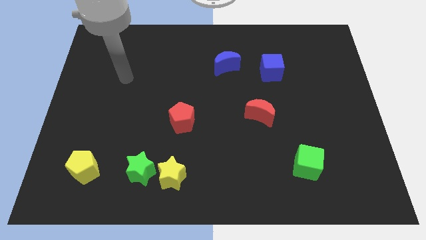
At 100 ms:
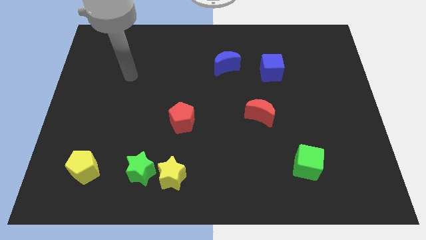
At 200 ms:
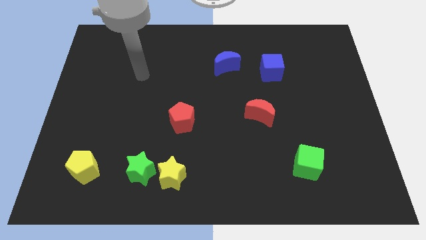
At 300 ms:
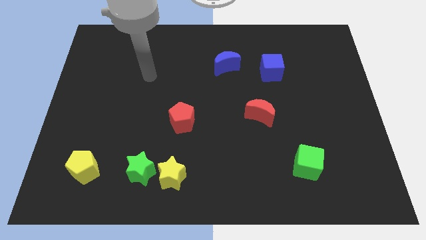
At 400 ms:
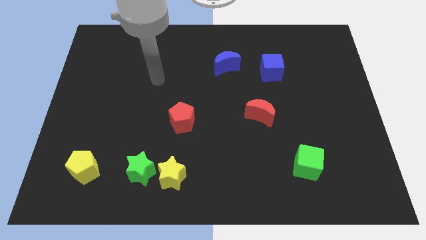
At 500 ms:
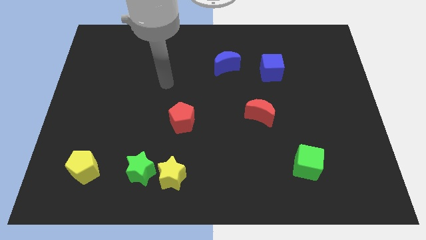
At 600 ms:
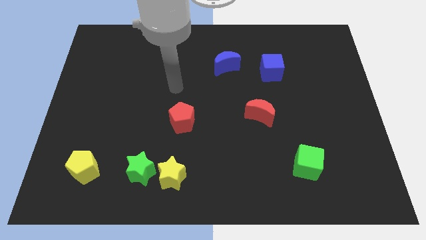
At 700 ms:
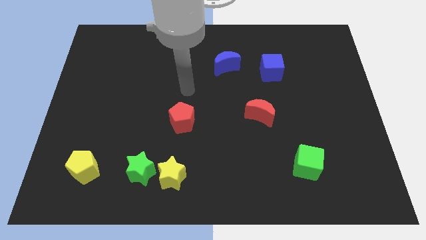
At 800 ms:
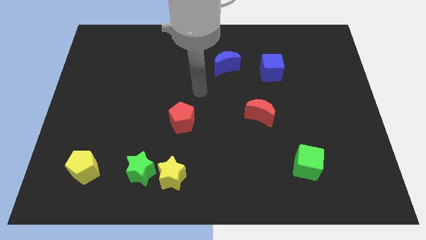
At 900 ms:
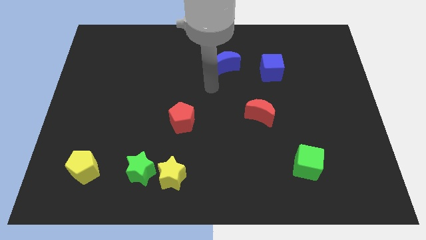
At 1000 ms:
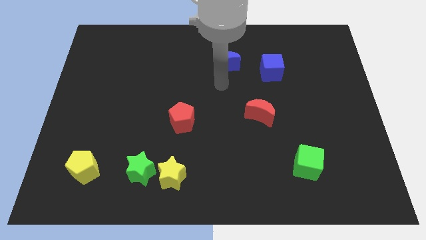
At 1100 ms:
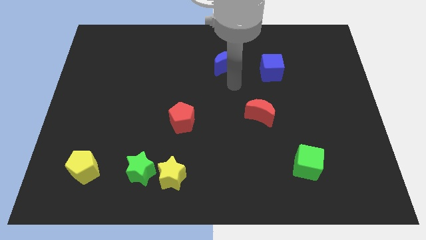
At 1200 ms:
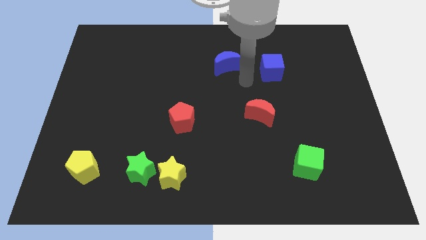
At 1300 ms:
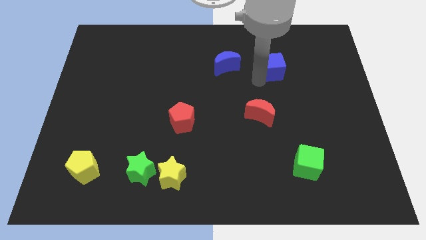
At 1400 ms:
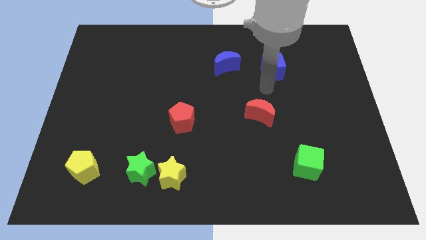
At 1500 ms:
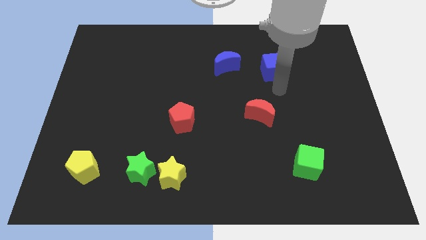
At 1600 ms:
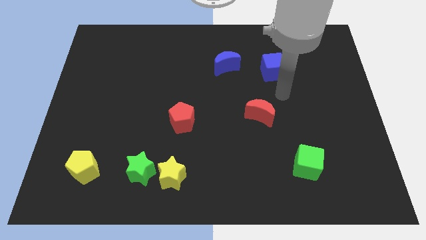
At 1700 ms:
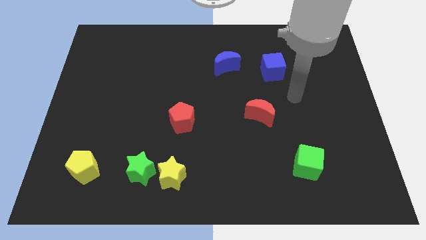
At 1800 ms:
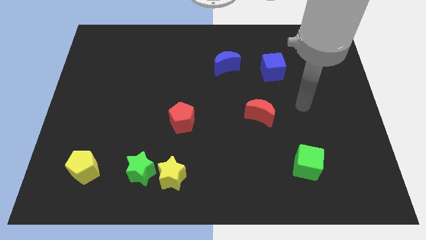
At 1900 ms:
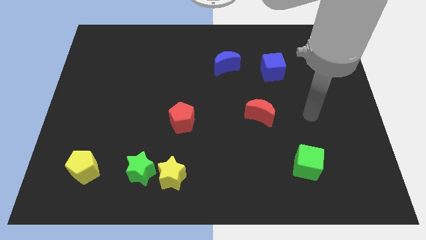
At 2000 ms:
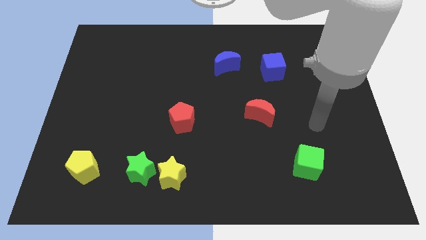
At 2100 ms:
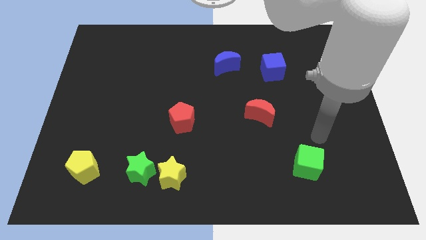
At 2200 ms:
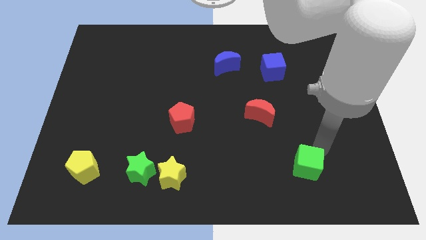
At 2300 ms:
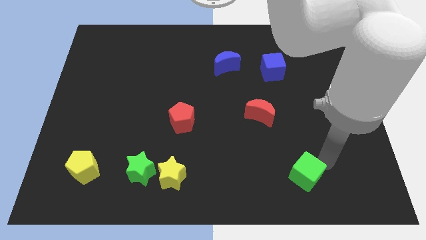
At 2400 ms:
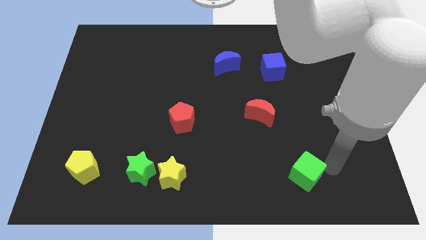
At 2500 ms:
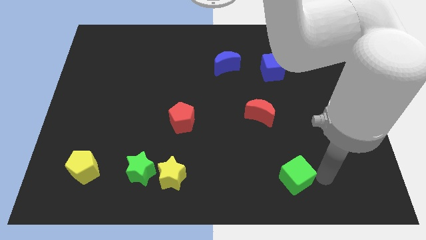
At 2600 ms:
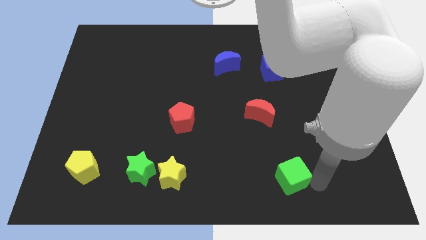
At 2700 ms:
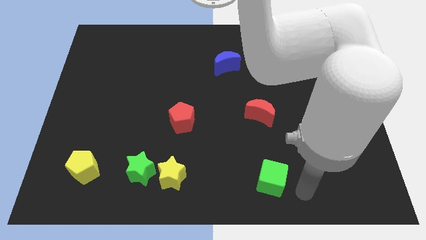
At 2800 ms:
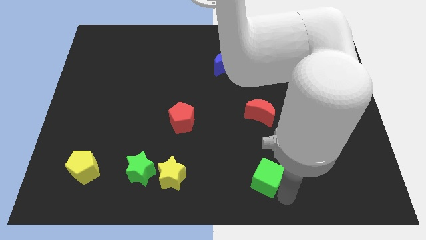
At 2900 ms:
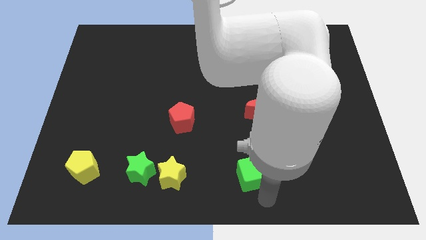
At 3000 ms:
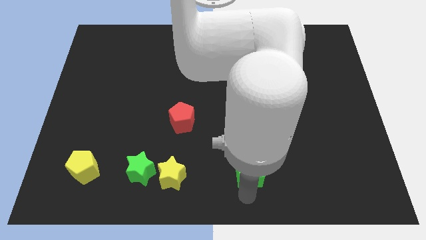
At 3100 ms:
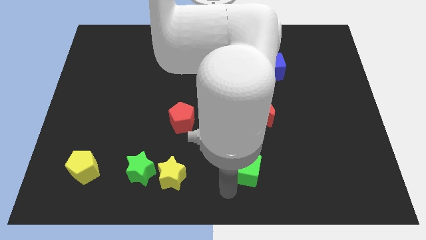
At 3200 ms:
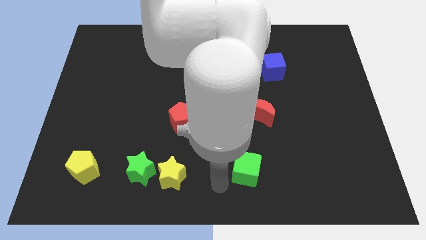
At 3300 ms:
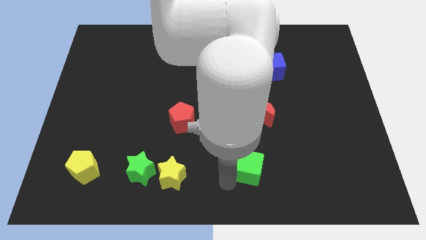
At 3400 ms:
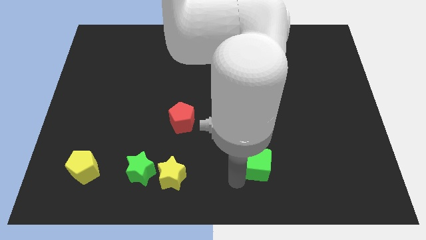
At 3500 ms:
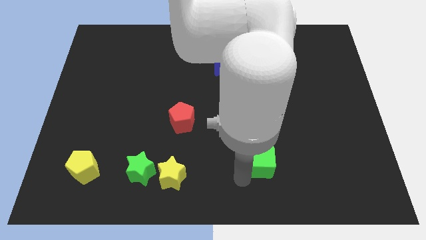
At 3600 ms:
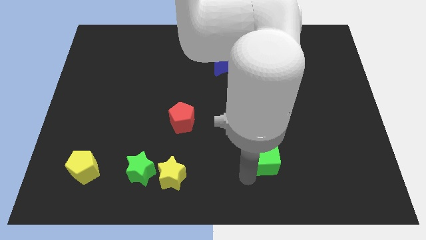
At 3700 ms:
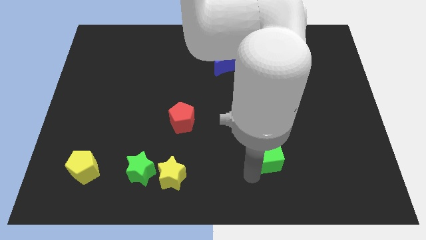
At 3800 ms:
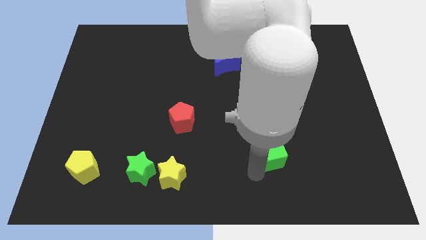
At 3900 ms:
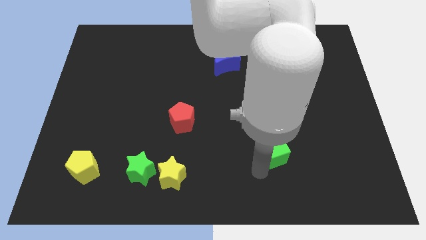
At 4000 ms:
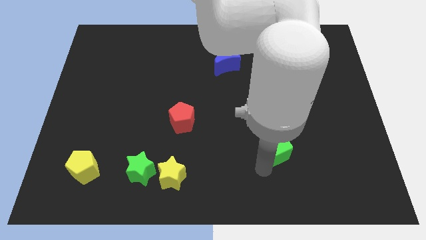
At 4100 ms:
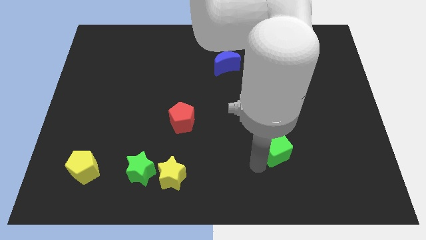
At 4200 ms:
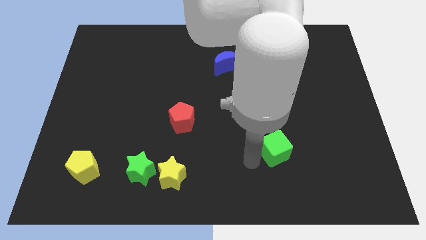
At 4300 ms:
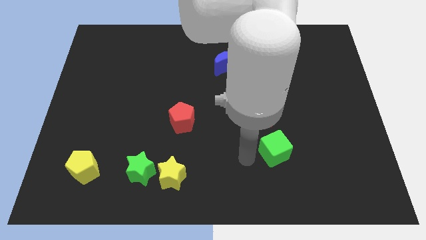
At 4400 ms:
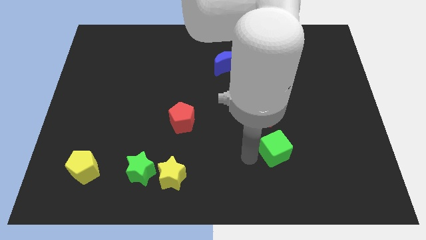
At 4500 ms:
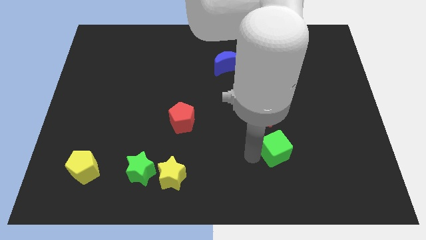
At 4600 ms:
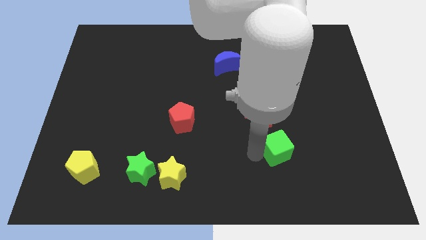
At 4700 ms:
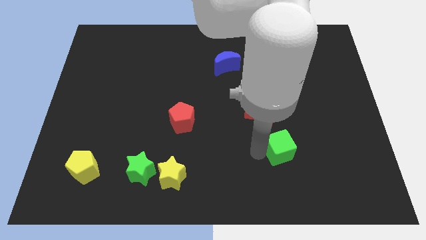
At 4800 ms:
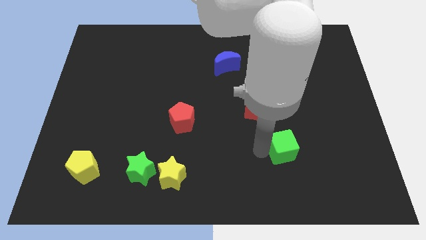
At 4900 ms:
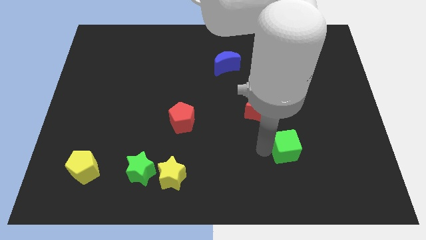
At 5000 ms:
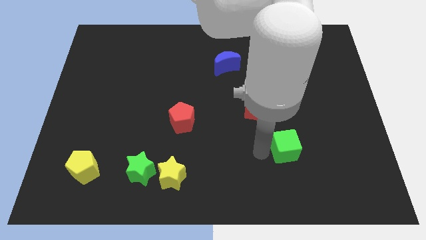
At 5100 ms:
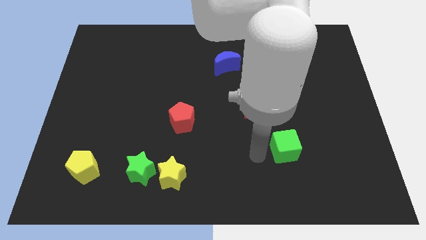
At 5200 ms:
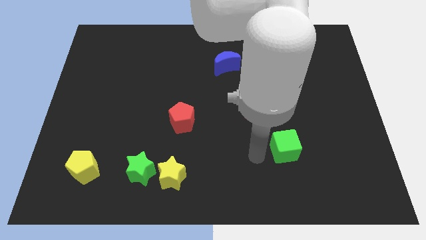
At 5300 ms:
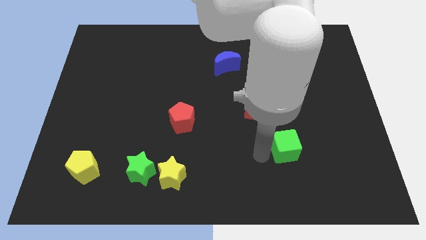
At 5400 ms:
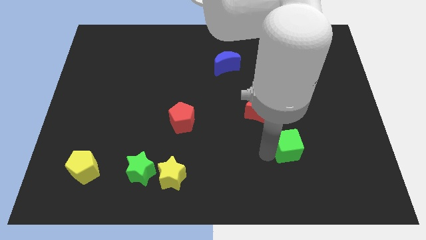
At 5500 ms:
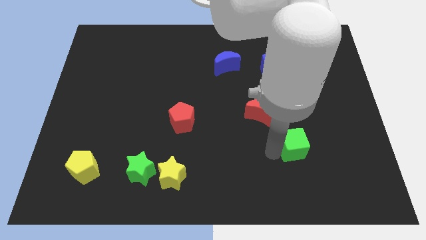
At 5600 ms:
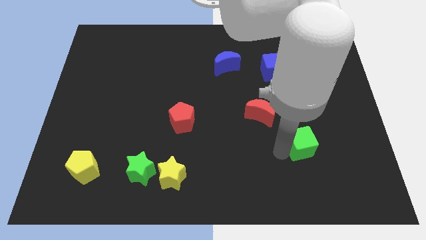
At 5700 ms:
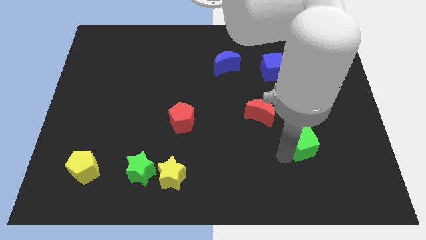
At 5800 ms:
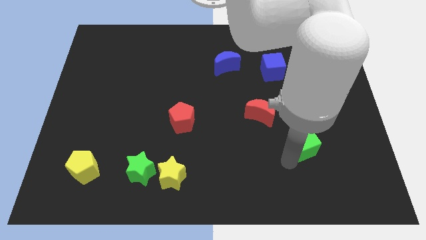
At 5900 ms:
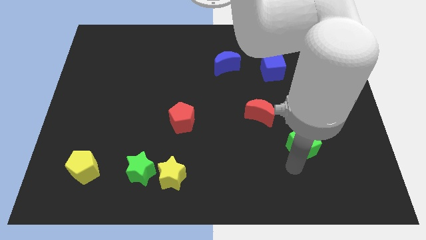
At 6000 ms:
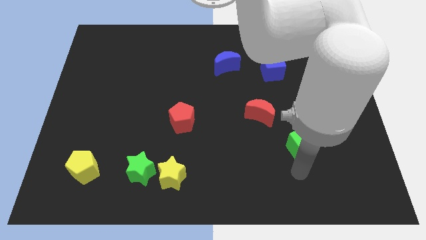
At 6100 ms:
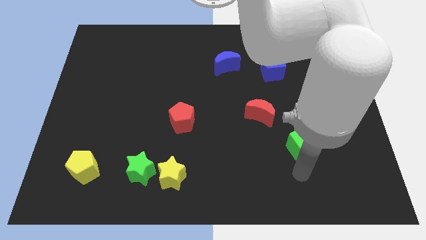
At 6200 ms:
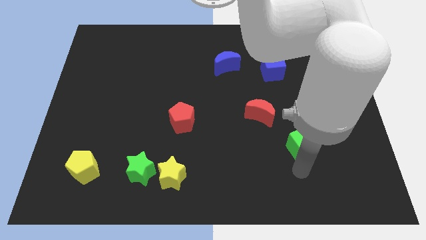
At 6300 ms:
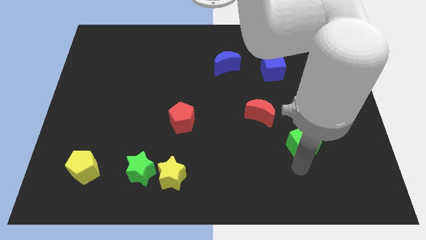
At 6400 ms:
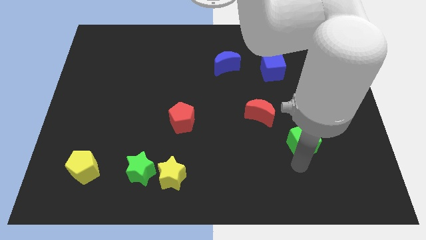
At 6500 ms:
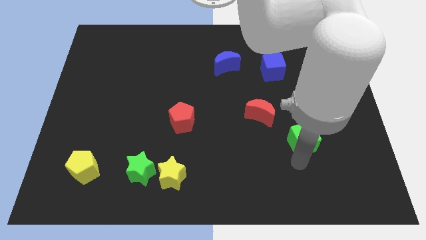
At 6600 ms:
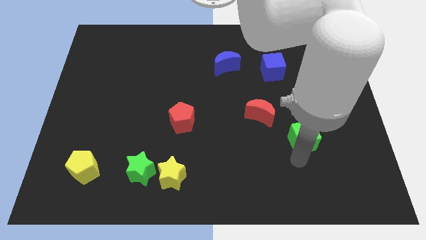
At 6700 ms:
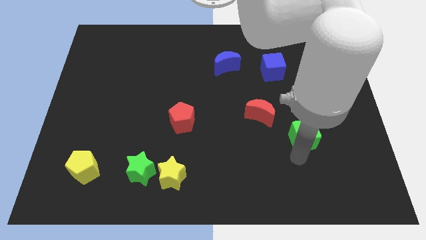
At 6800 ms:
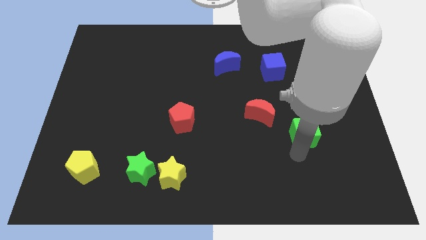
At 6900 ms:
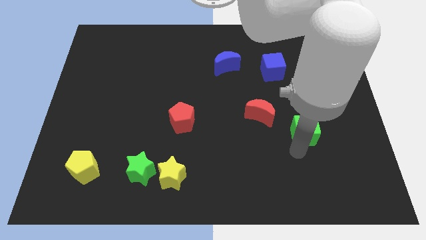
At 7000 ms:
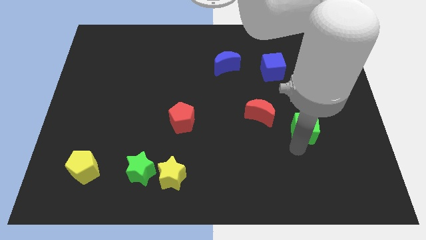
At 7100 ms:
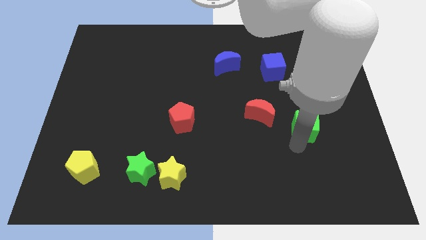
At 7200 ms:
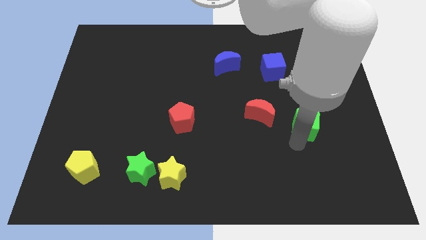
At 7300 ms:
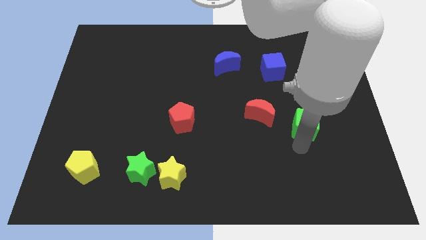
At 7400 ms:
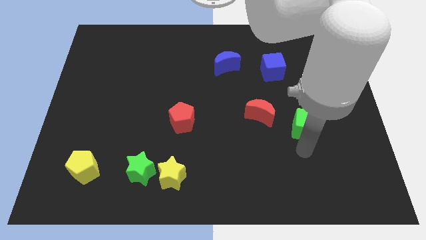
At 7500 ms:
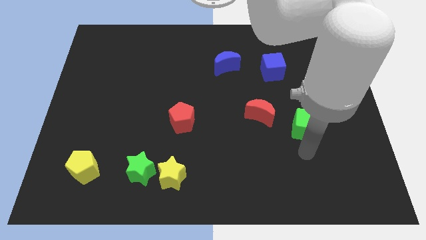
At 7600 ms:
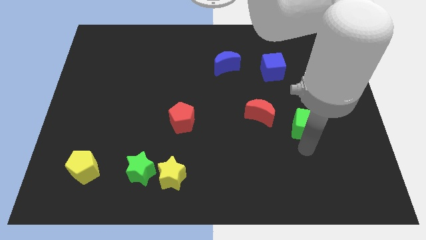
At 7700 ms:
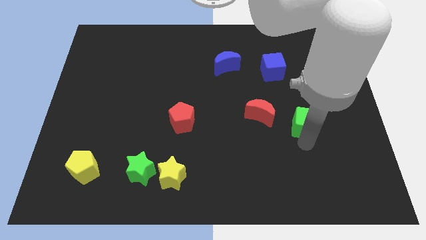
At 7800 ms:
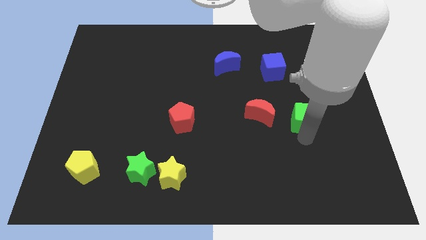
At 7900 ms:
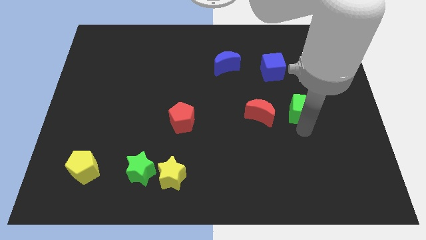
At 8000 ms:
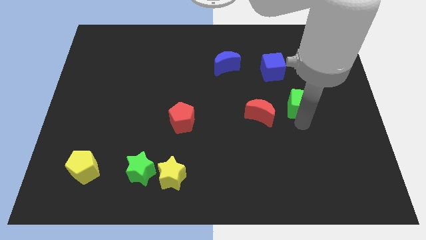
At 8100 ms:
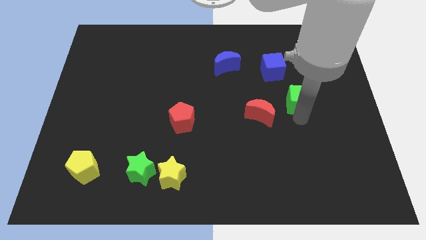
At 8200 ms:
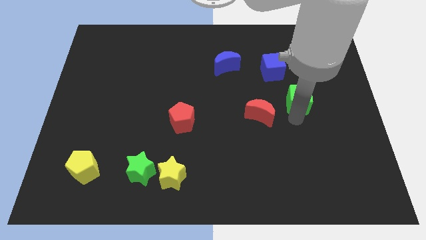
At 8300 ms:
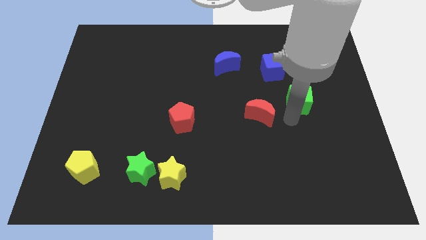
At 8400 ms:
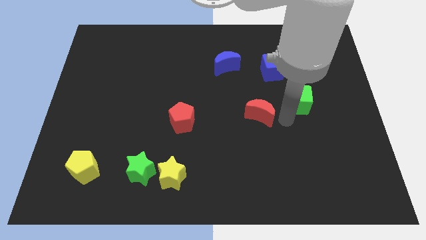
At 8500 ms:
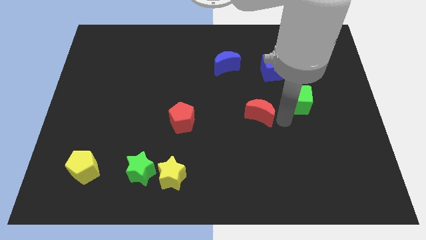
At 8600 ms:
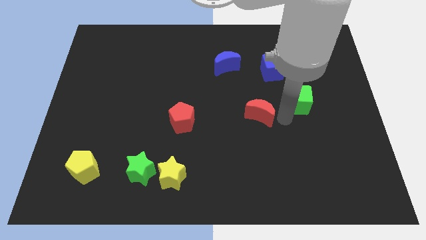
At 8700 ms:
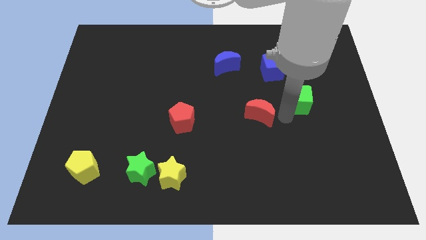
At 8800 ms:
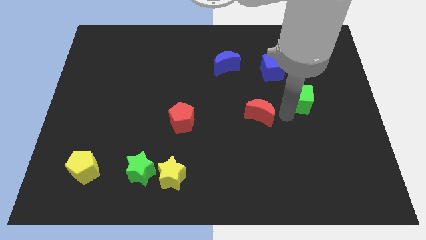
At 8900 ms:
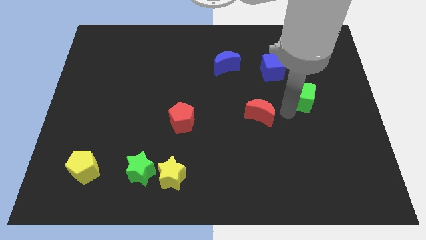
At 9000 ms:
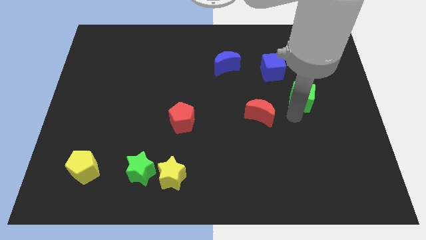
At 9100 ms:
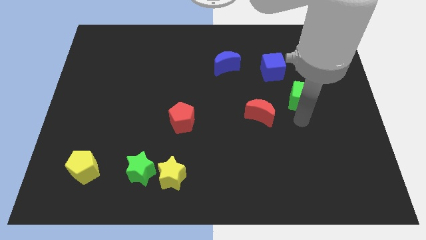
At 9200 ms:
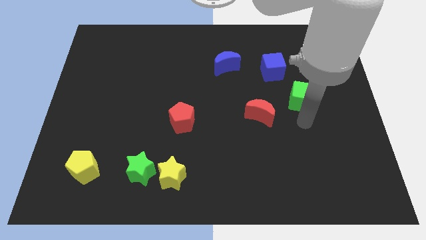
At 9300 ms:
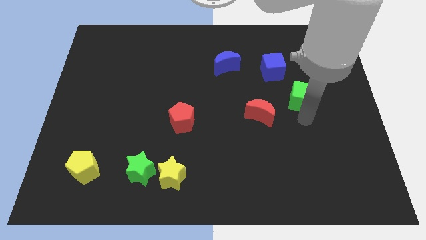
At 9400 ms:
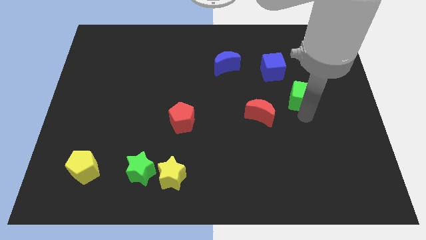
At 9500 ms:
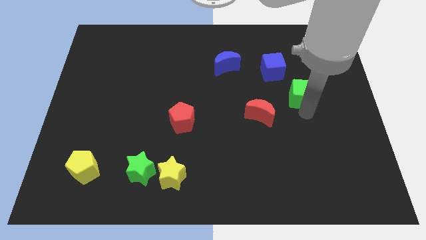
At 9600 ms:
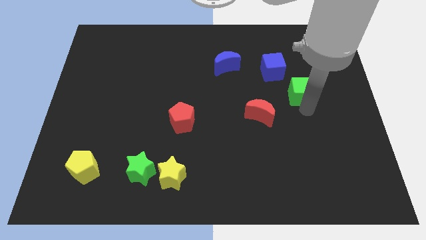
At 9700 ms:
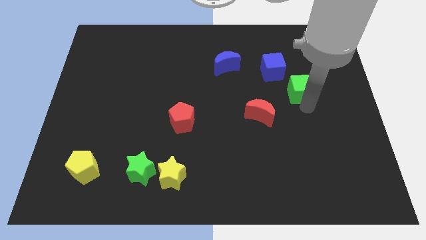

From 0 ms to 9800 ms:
move the green cube upwards
